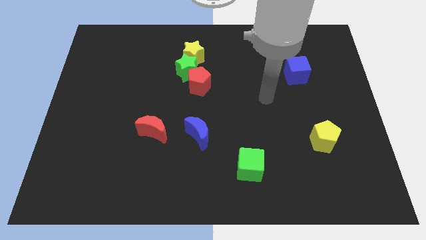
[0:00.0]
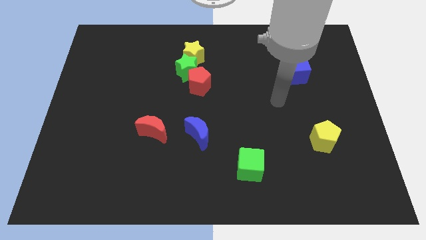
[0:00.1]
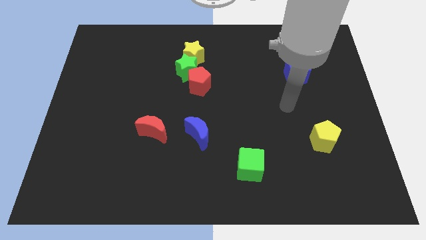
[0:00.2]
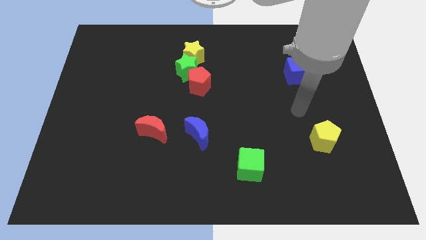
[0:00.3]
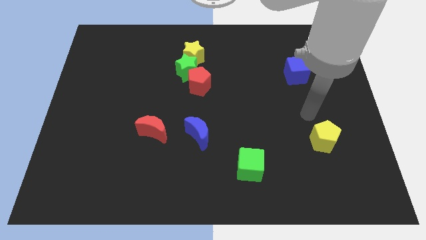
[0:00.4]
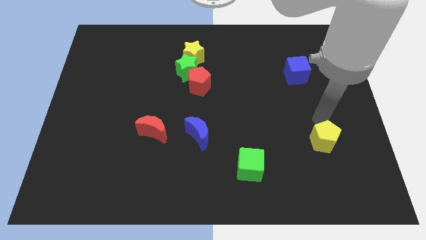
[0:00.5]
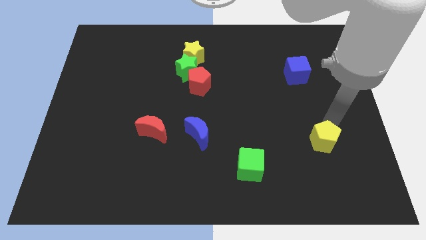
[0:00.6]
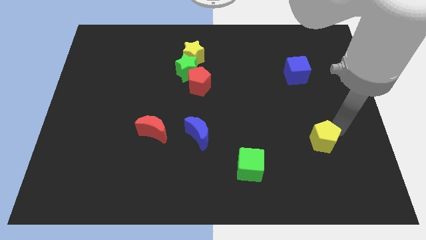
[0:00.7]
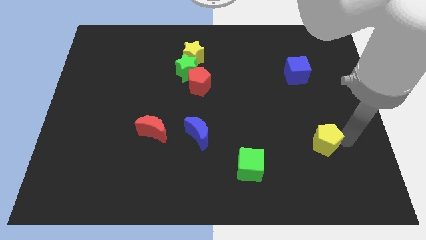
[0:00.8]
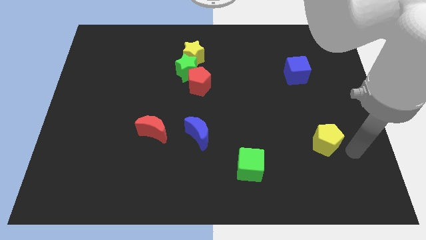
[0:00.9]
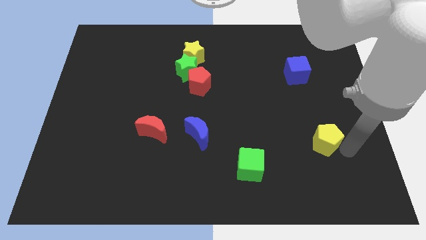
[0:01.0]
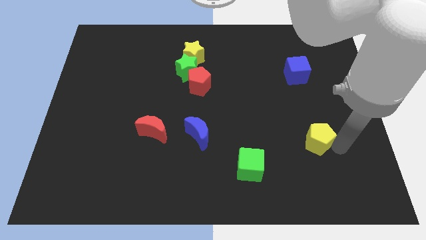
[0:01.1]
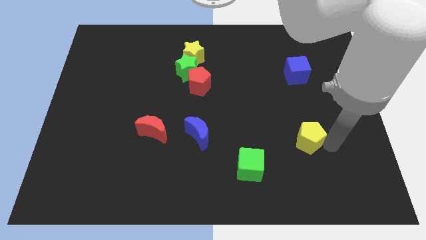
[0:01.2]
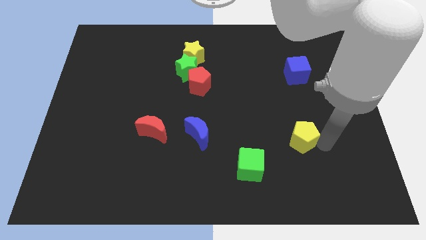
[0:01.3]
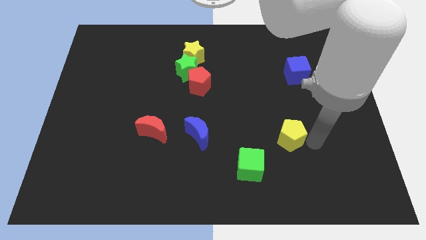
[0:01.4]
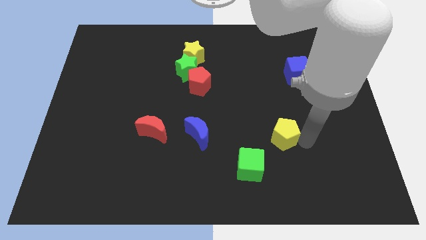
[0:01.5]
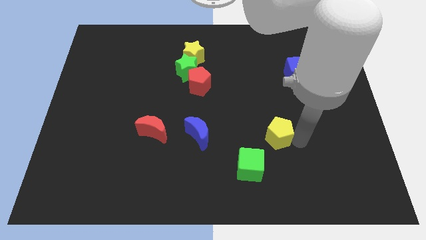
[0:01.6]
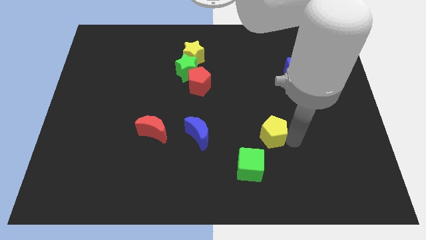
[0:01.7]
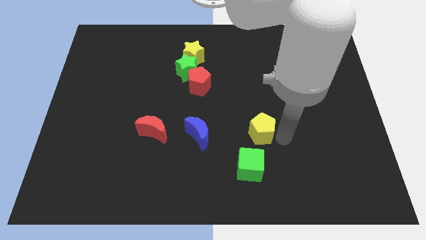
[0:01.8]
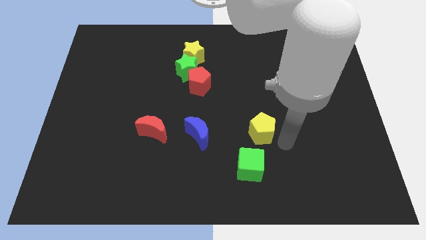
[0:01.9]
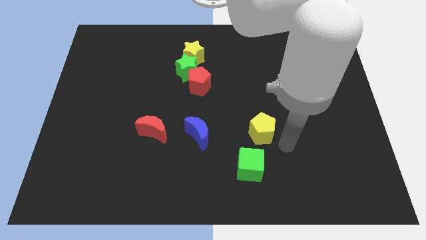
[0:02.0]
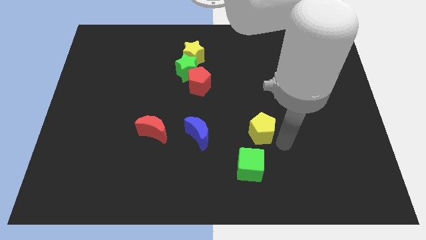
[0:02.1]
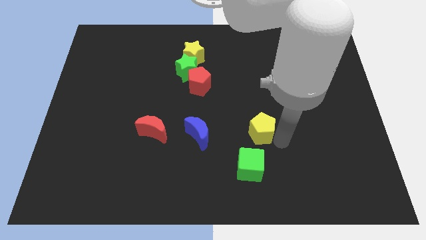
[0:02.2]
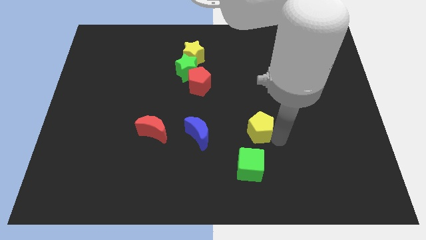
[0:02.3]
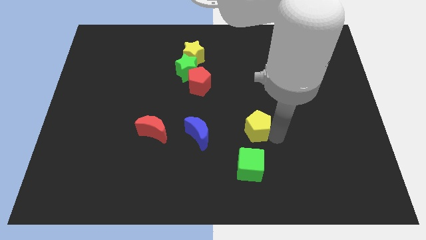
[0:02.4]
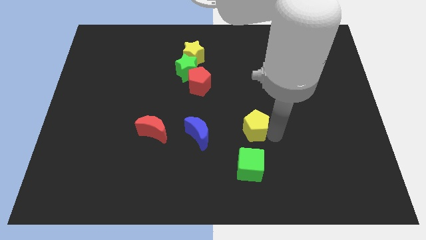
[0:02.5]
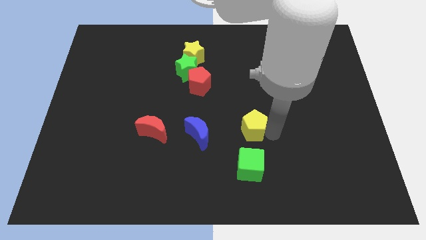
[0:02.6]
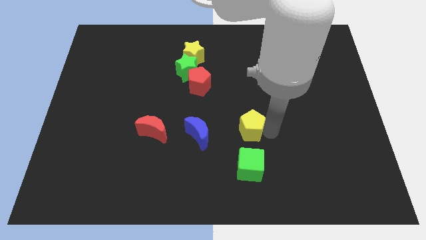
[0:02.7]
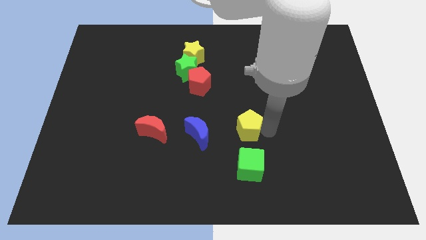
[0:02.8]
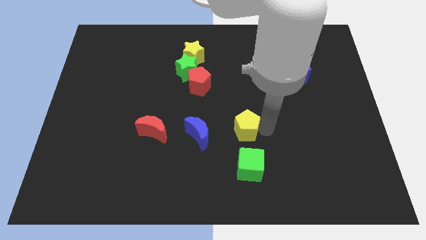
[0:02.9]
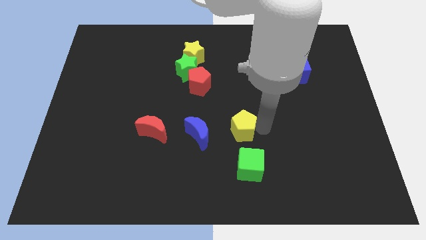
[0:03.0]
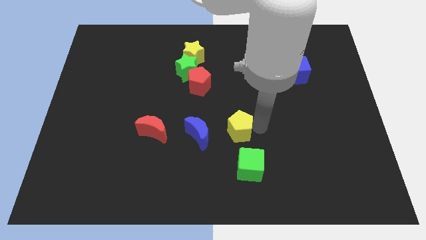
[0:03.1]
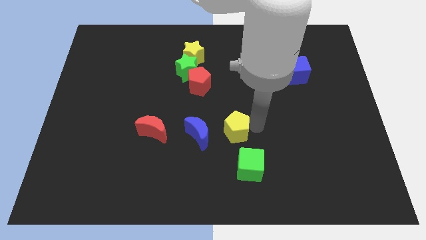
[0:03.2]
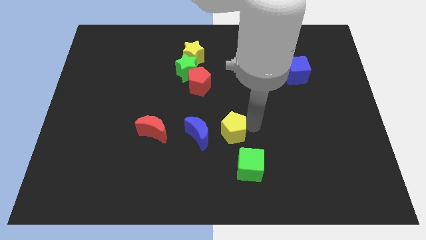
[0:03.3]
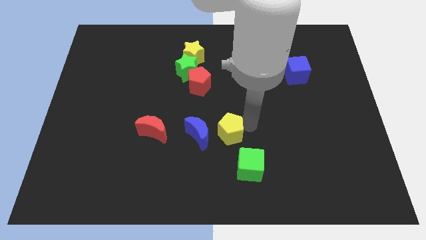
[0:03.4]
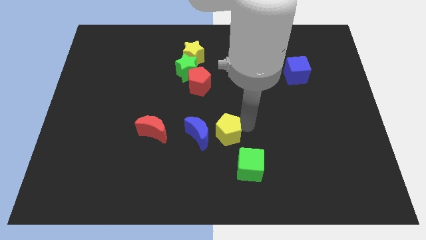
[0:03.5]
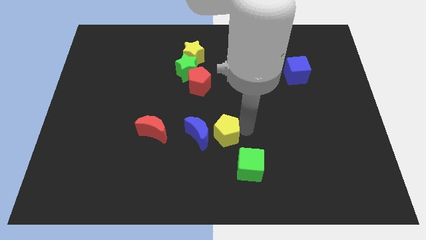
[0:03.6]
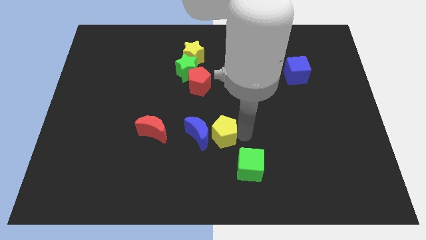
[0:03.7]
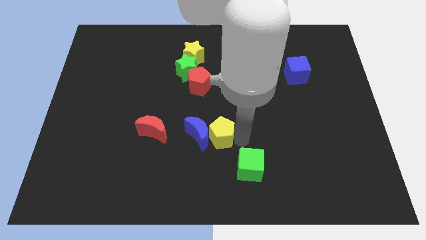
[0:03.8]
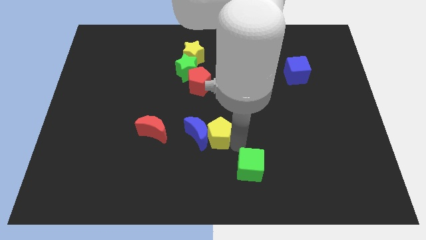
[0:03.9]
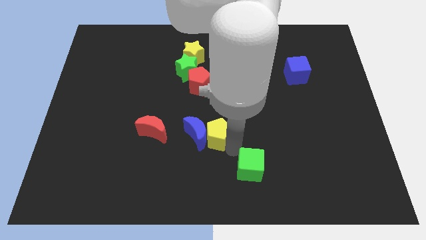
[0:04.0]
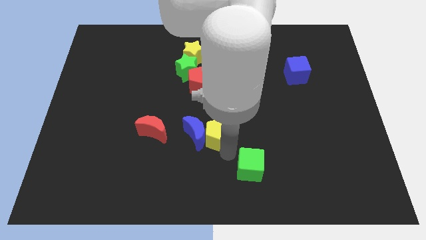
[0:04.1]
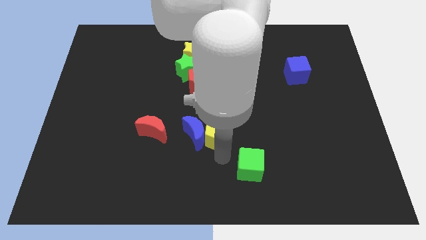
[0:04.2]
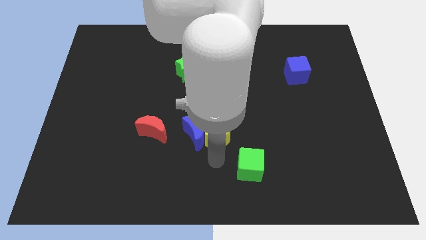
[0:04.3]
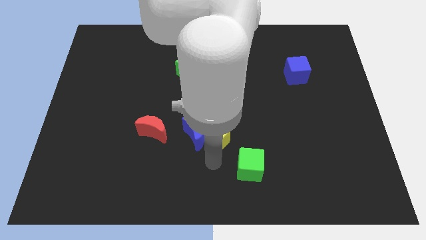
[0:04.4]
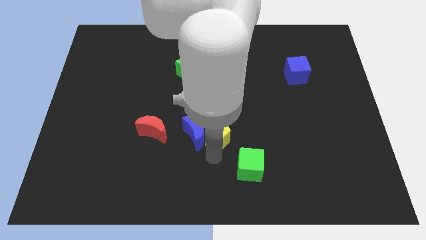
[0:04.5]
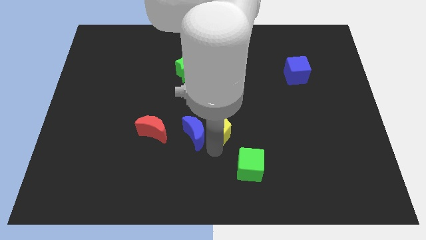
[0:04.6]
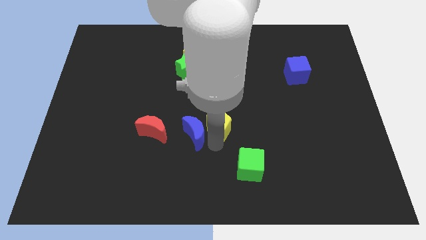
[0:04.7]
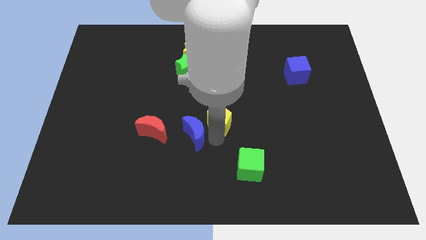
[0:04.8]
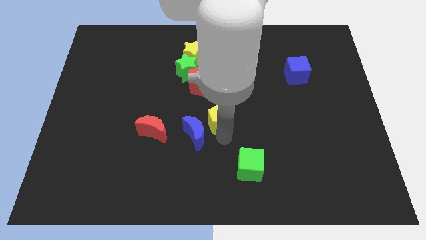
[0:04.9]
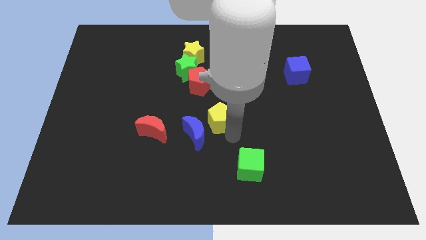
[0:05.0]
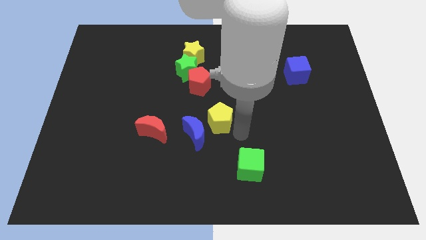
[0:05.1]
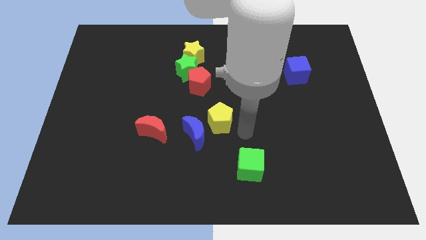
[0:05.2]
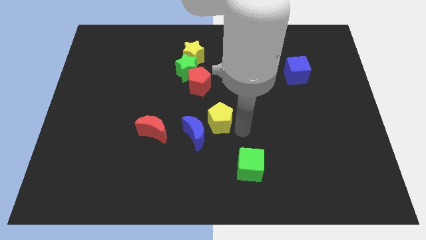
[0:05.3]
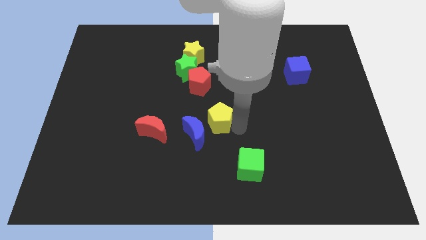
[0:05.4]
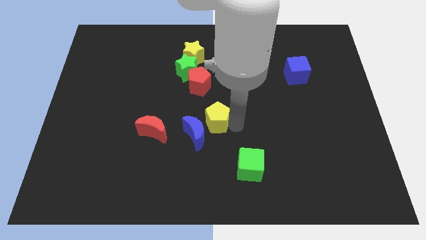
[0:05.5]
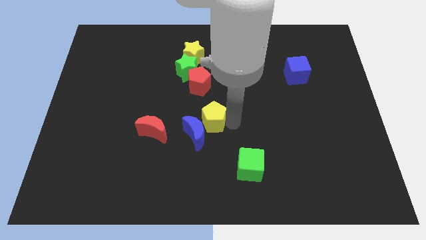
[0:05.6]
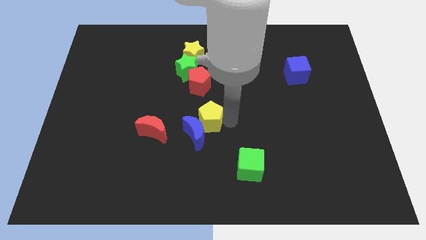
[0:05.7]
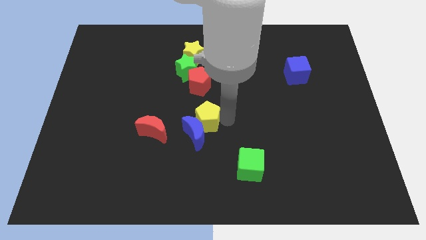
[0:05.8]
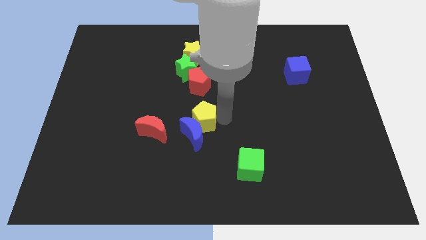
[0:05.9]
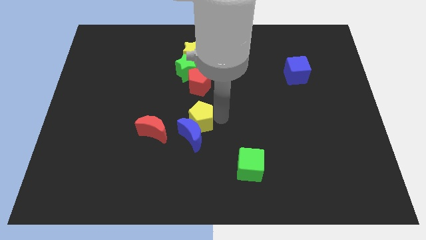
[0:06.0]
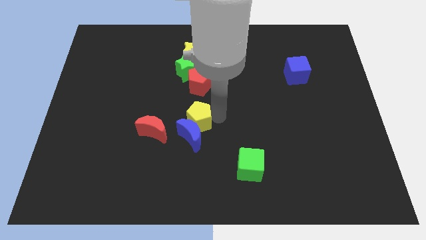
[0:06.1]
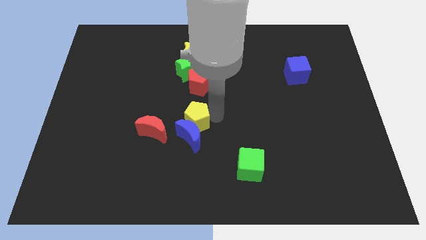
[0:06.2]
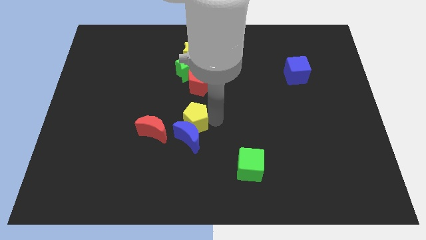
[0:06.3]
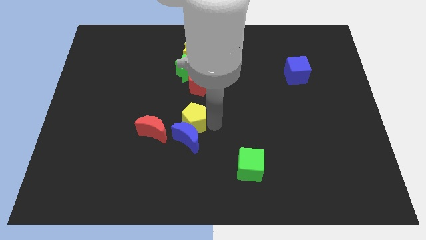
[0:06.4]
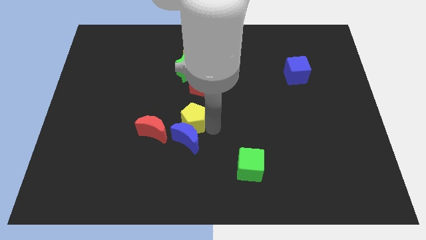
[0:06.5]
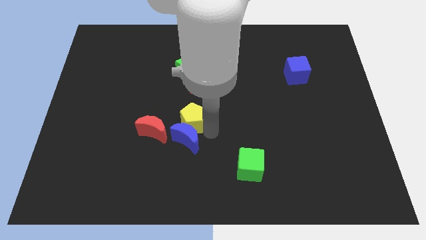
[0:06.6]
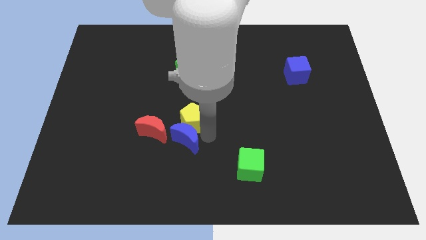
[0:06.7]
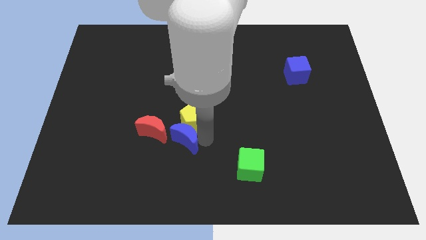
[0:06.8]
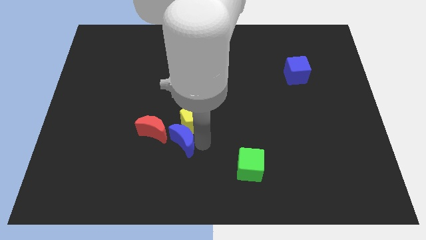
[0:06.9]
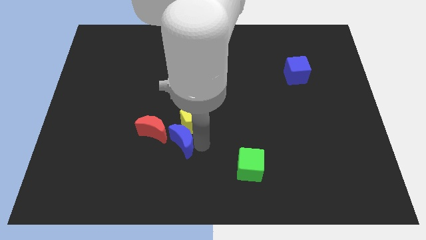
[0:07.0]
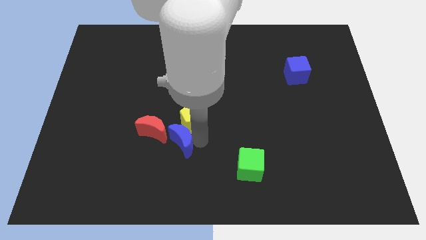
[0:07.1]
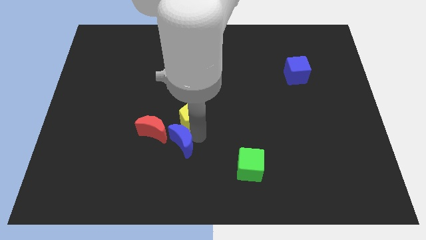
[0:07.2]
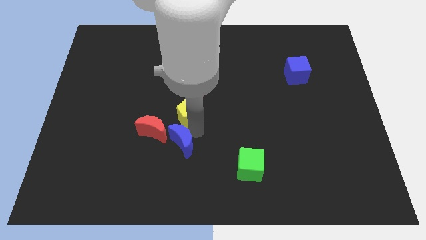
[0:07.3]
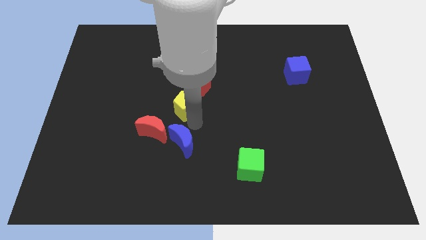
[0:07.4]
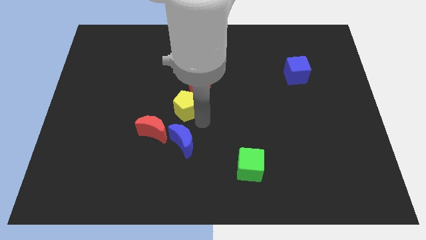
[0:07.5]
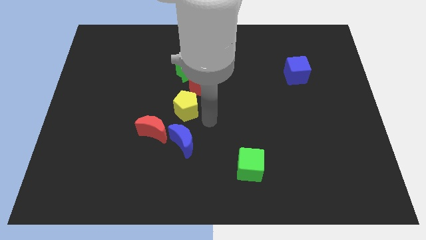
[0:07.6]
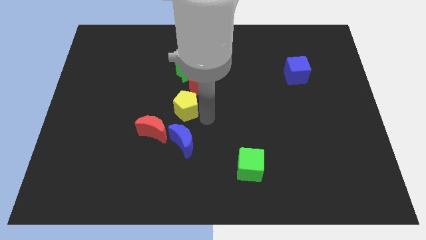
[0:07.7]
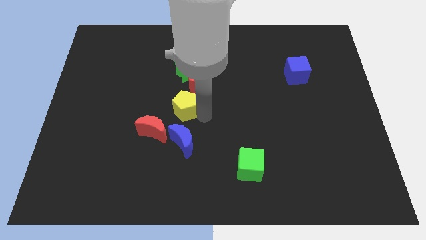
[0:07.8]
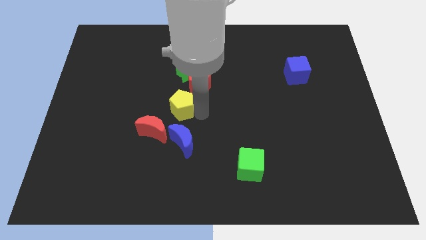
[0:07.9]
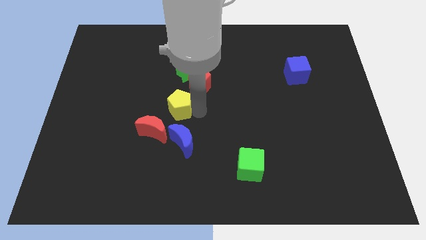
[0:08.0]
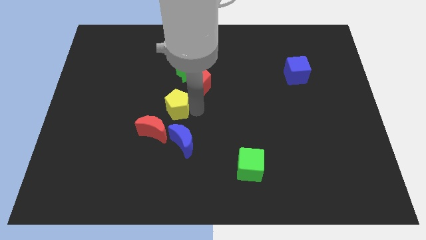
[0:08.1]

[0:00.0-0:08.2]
slide the yellow pentagon to the top side of the red moon
